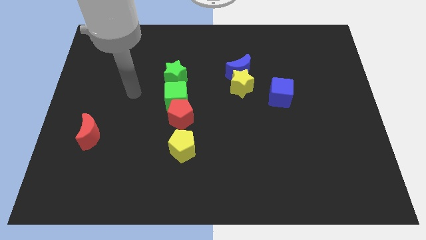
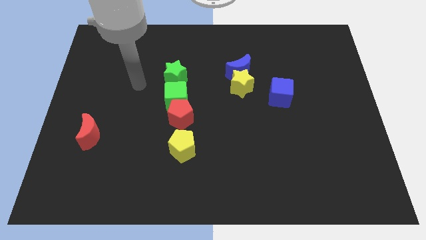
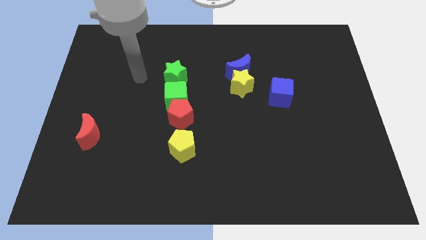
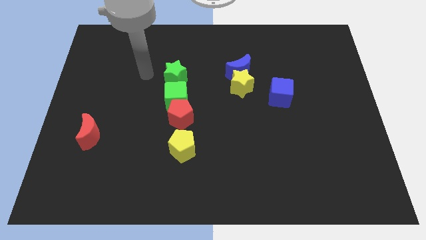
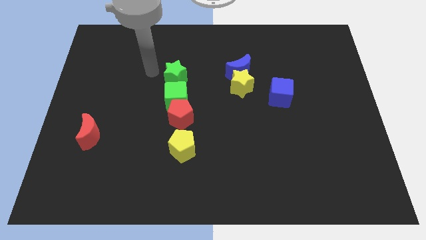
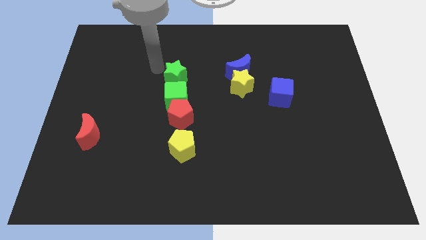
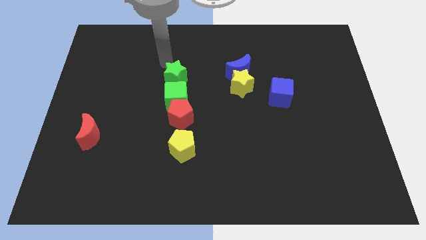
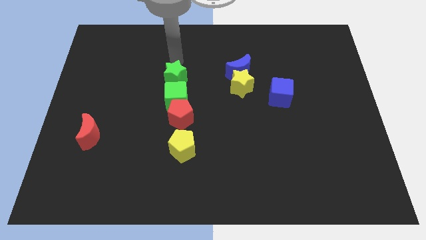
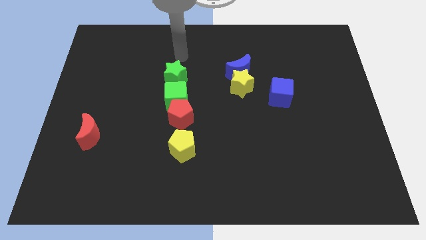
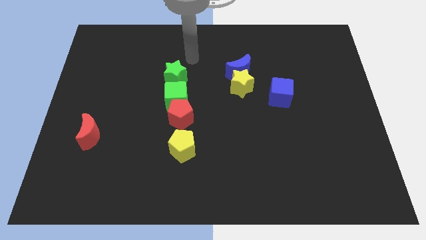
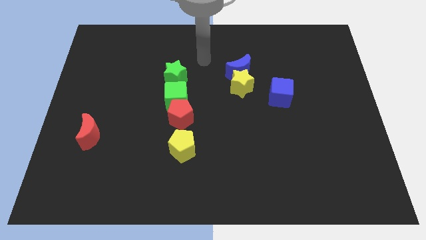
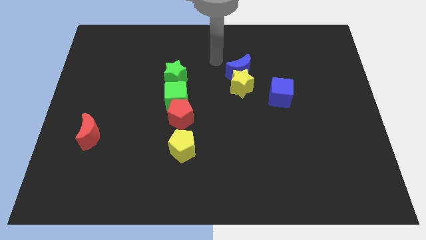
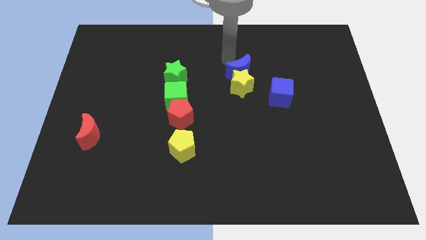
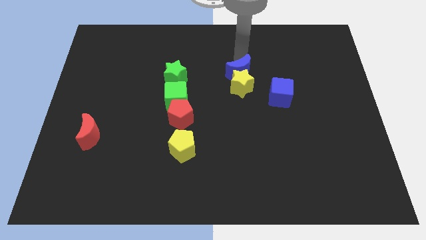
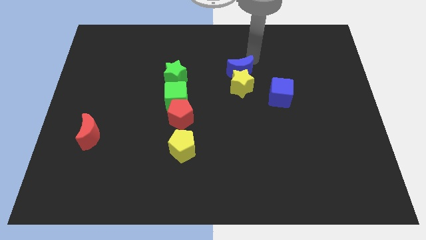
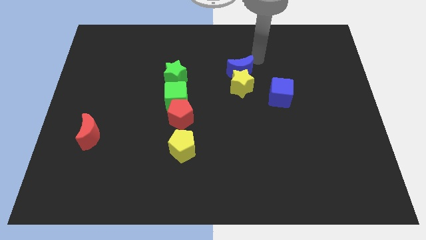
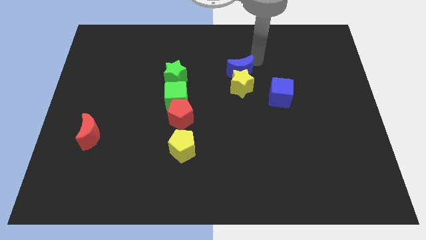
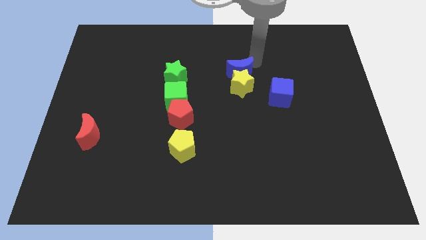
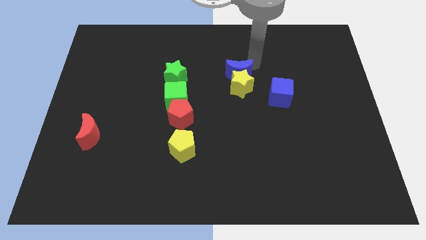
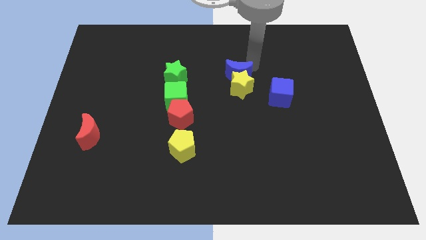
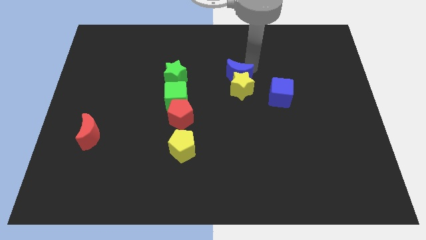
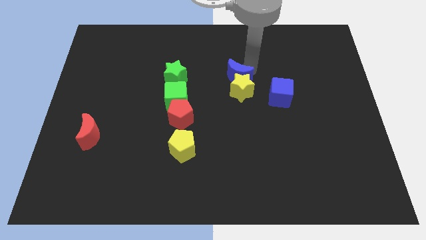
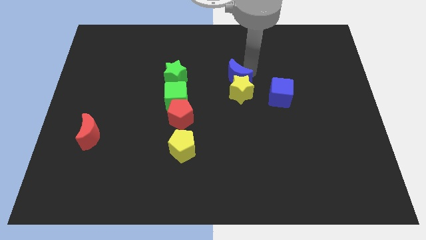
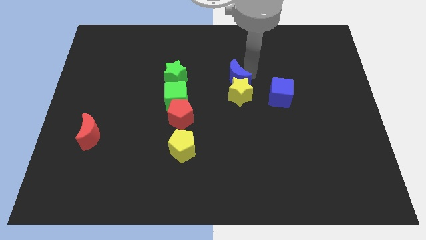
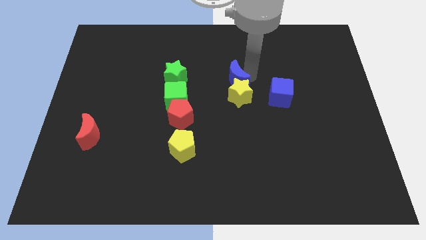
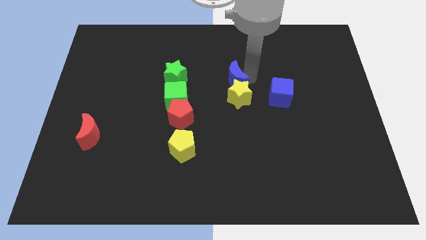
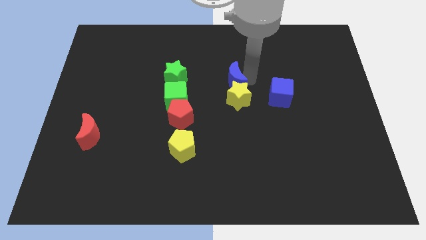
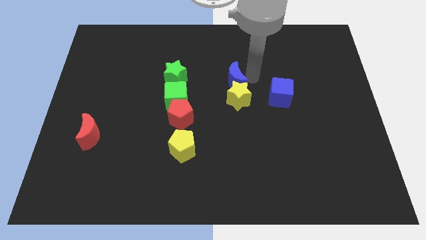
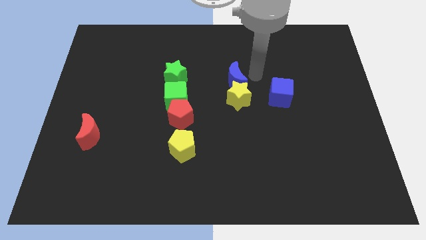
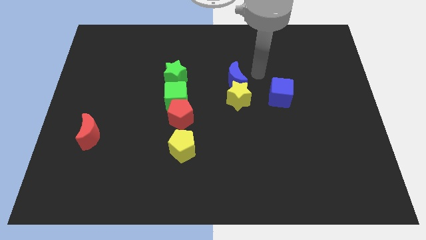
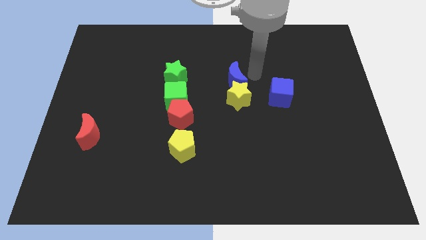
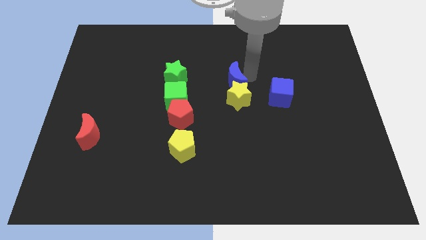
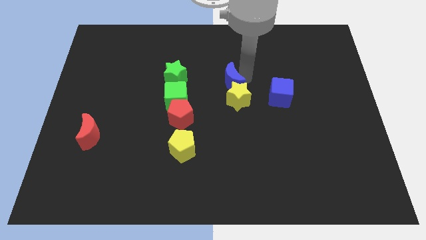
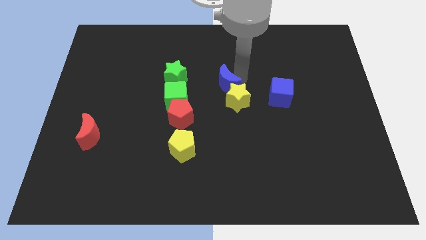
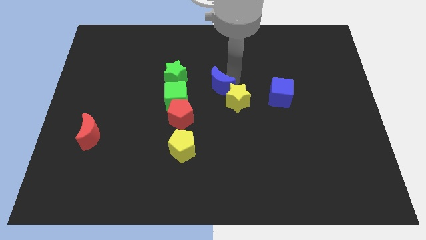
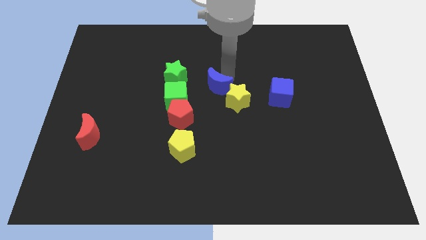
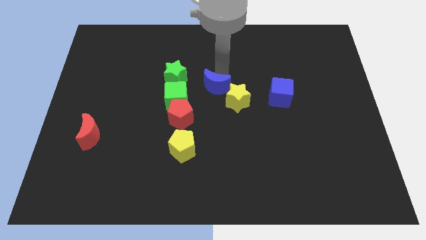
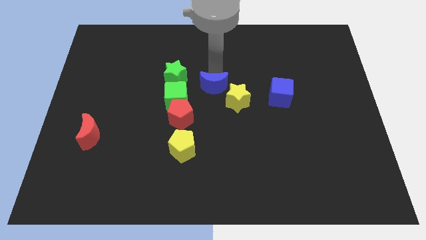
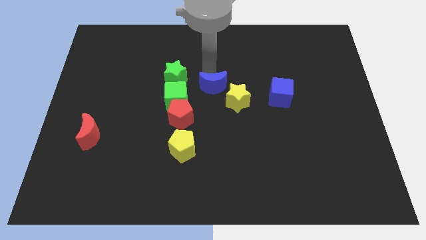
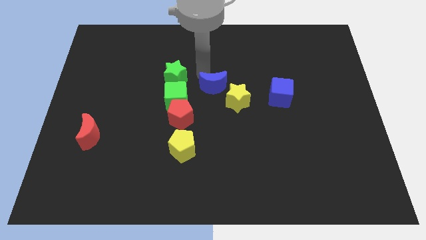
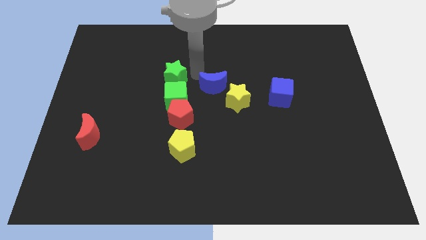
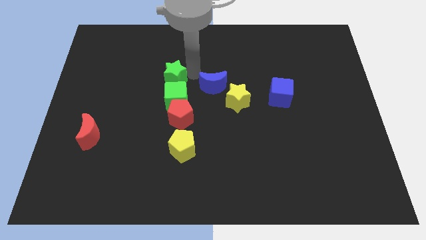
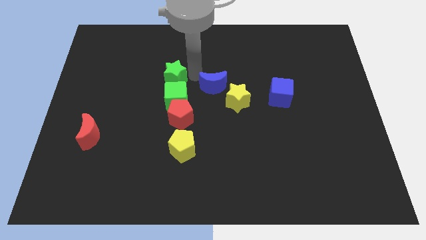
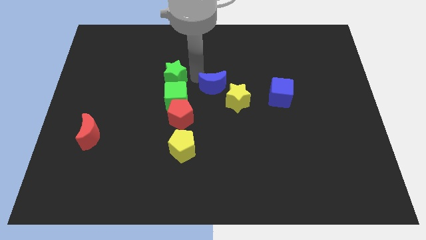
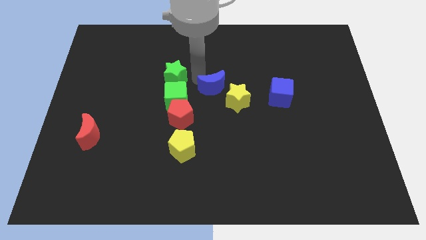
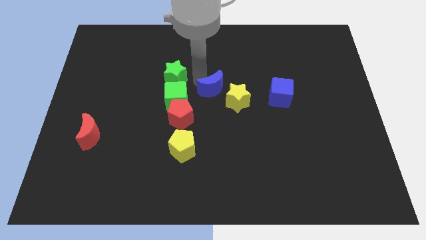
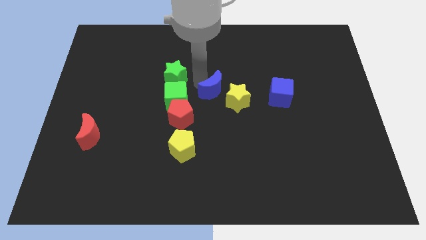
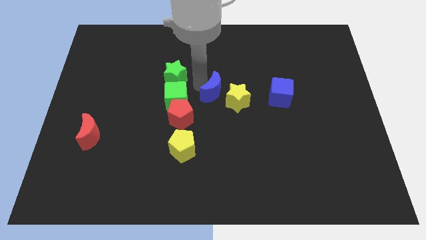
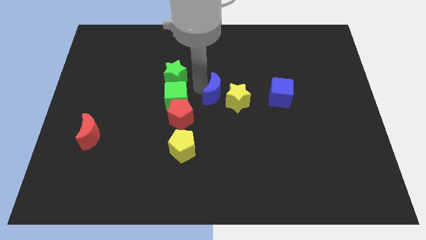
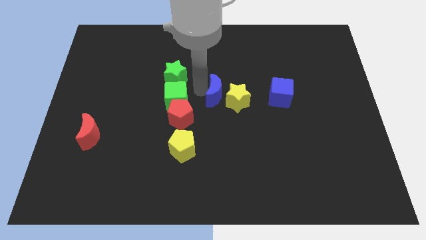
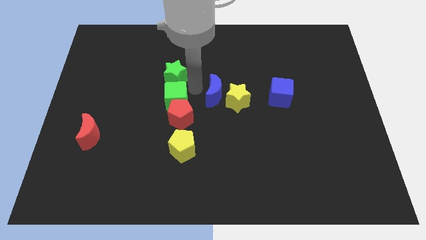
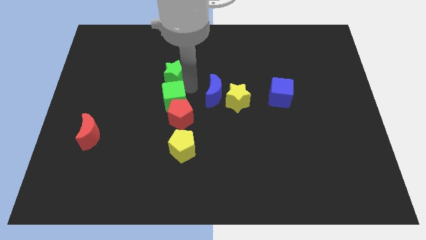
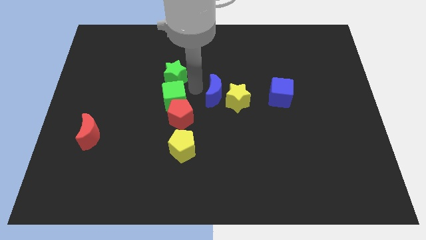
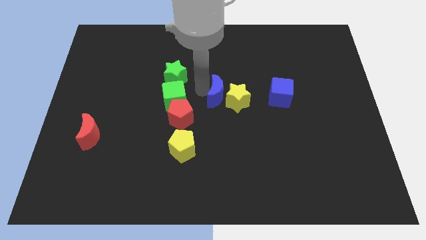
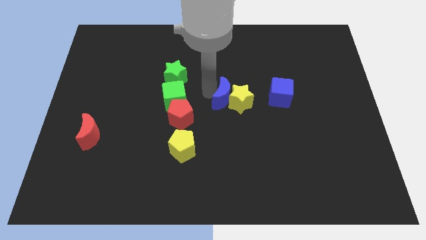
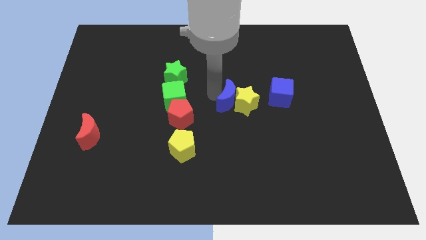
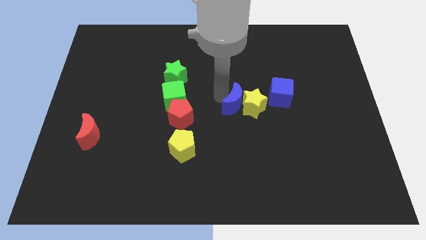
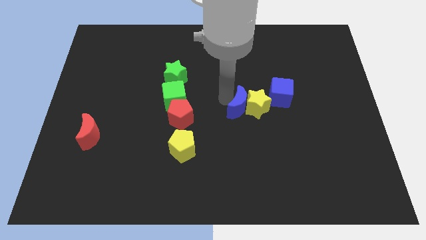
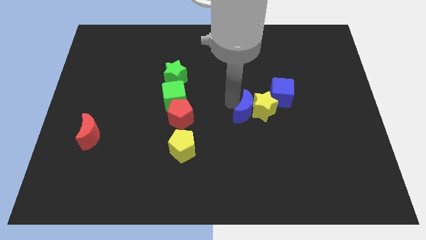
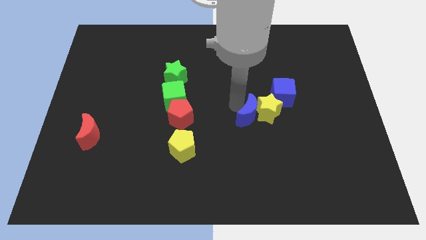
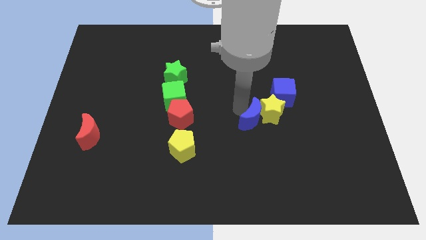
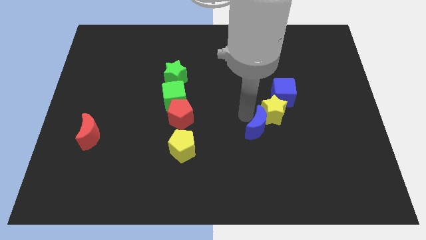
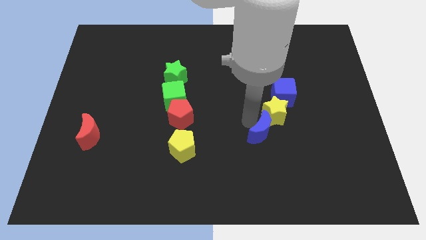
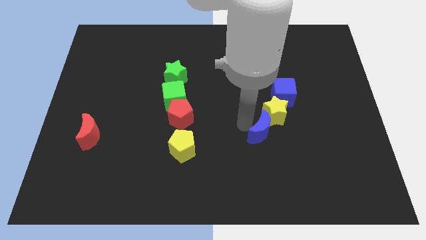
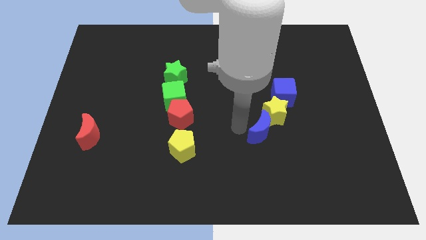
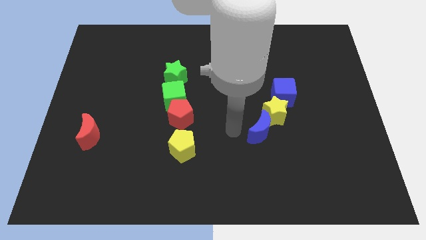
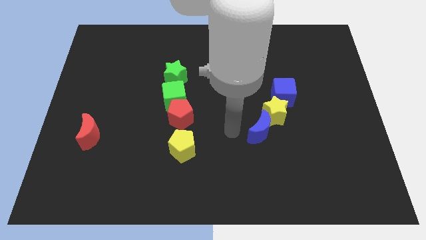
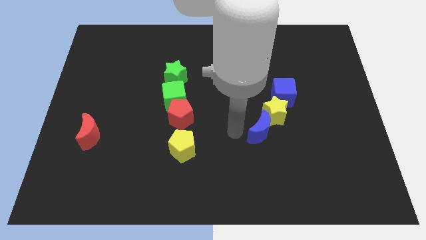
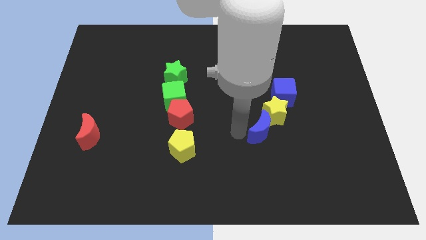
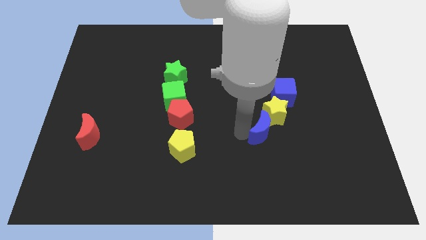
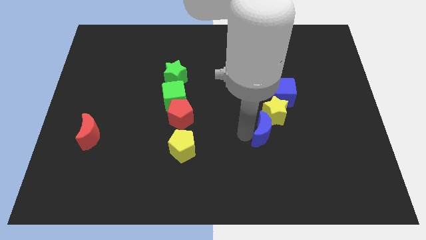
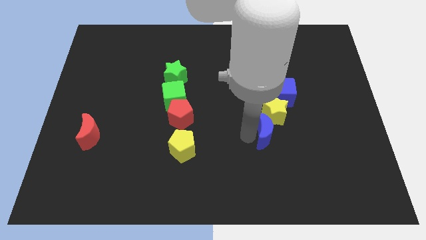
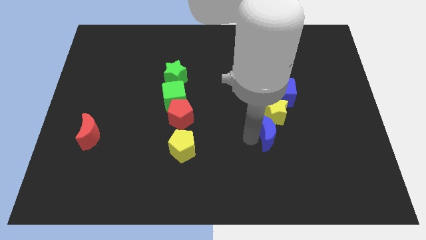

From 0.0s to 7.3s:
put the blue moon to the bottom of the blue cube
